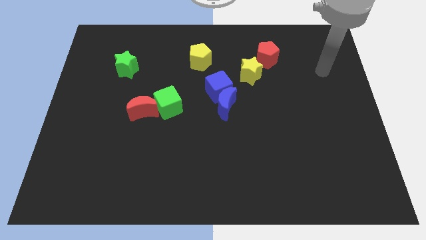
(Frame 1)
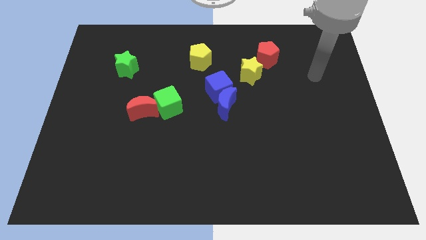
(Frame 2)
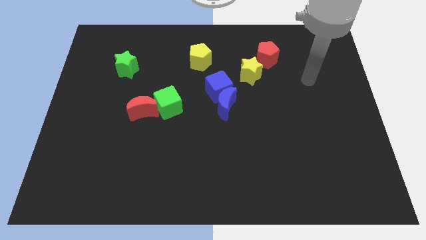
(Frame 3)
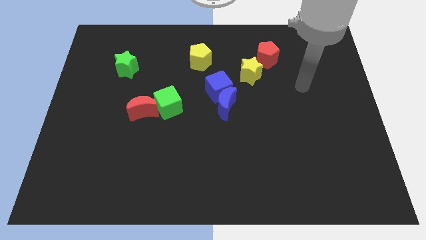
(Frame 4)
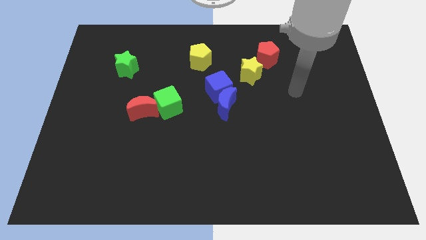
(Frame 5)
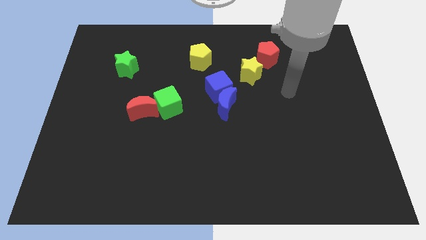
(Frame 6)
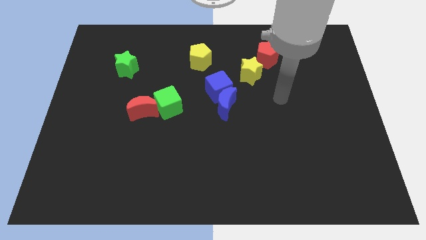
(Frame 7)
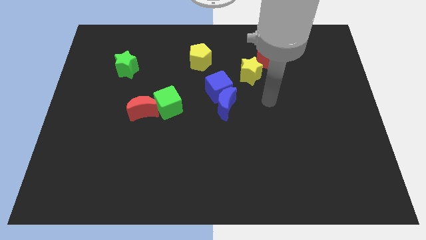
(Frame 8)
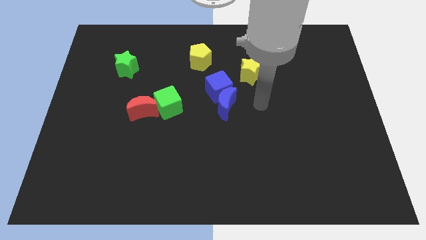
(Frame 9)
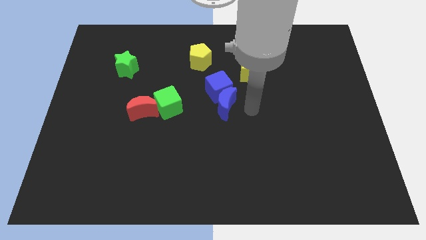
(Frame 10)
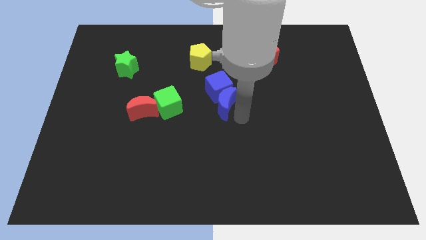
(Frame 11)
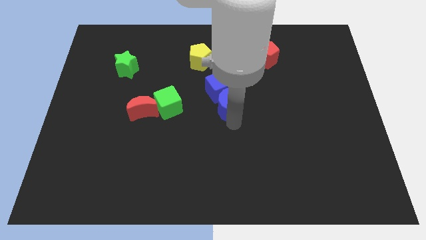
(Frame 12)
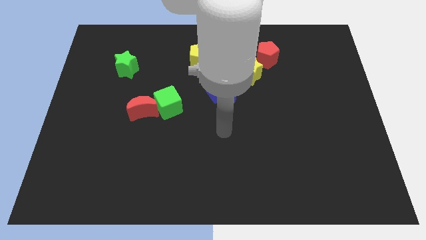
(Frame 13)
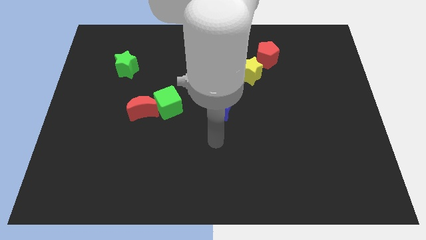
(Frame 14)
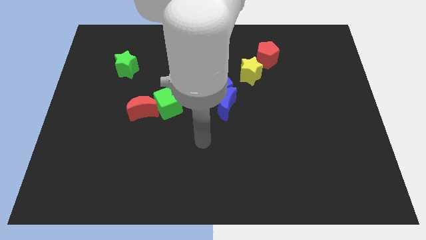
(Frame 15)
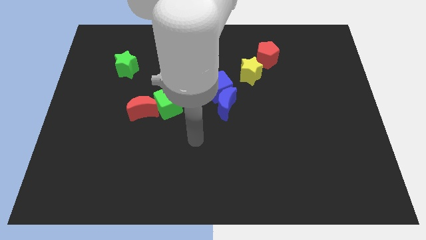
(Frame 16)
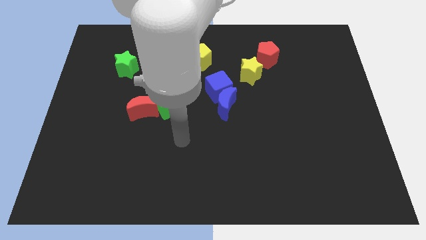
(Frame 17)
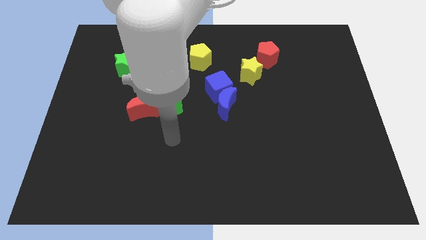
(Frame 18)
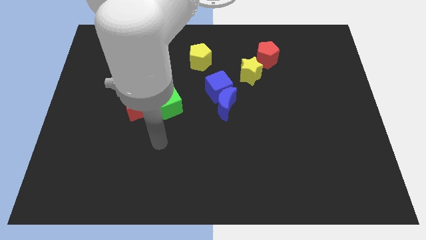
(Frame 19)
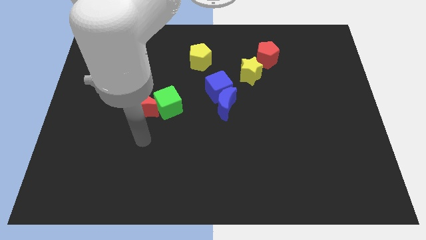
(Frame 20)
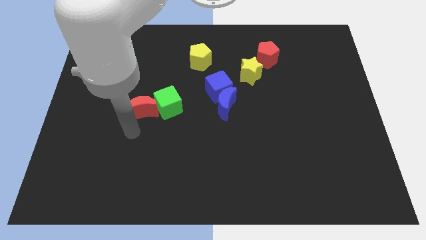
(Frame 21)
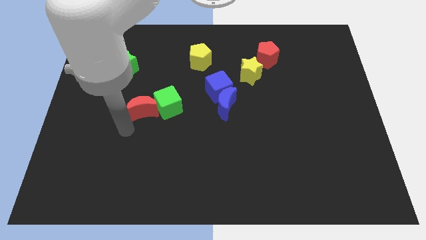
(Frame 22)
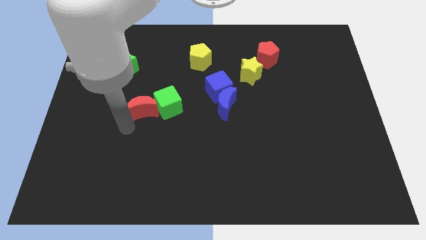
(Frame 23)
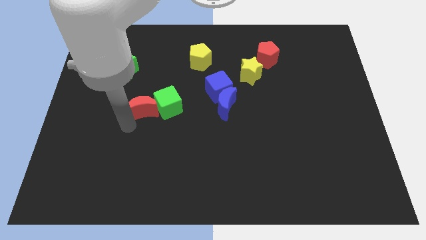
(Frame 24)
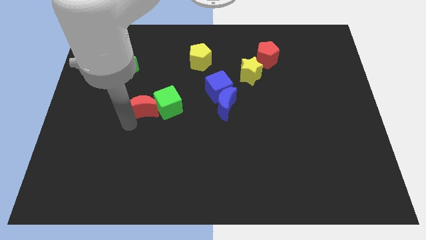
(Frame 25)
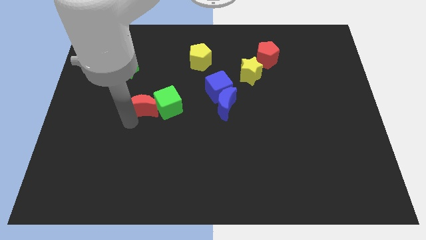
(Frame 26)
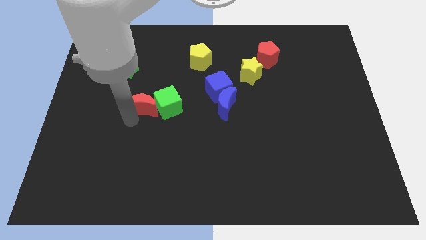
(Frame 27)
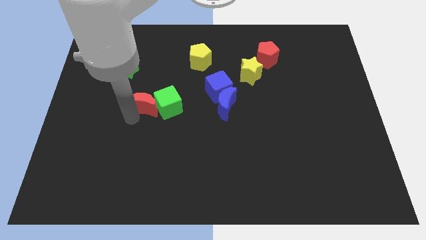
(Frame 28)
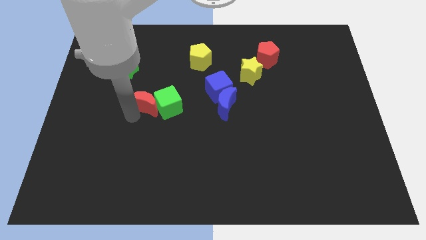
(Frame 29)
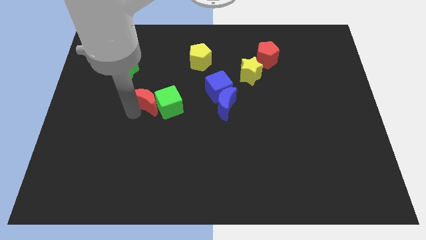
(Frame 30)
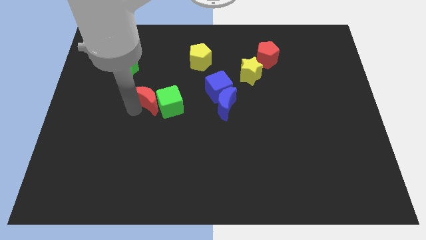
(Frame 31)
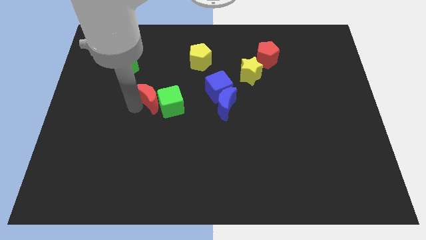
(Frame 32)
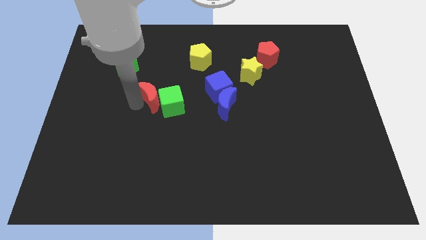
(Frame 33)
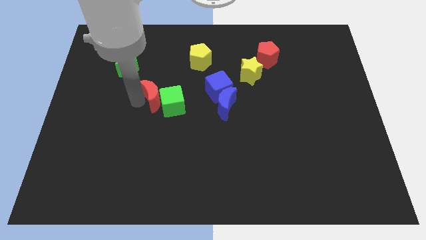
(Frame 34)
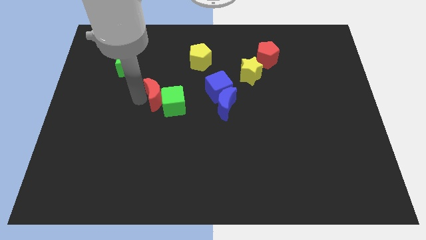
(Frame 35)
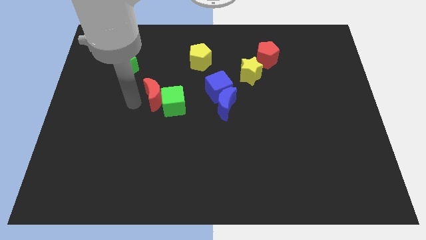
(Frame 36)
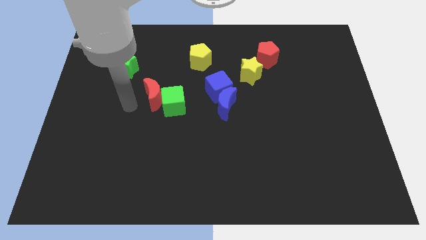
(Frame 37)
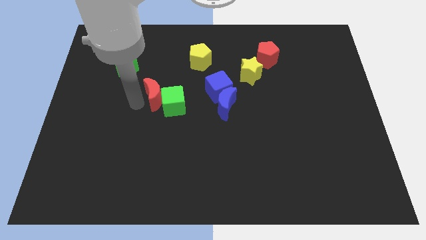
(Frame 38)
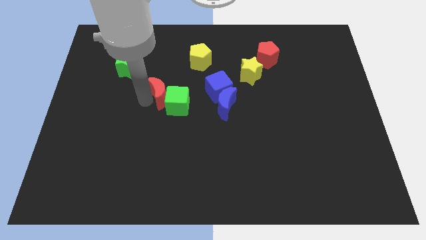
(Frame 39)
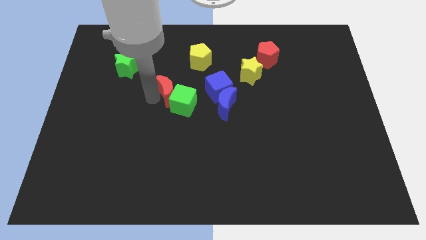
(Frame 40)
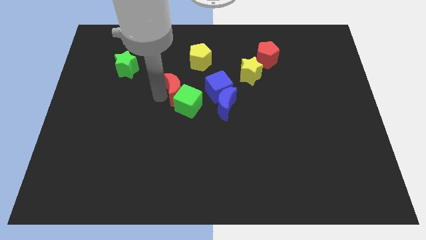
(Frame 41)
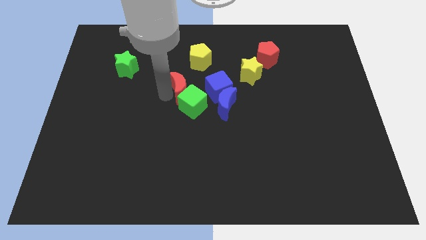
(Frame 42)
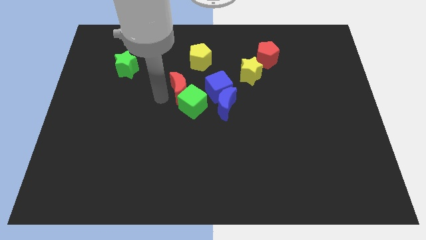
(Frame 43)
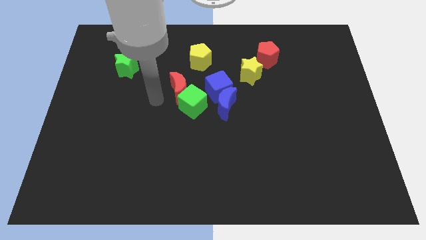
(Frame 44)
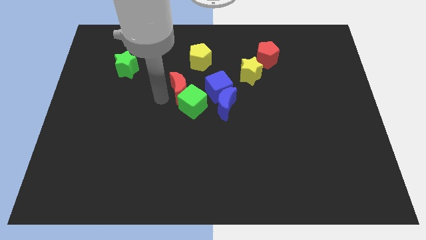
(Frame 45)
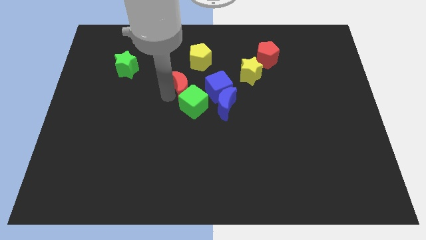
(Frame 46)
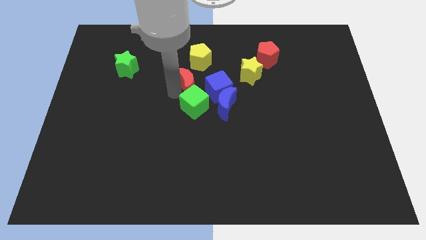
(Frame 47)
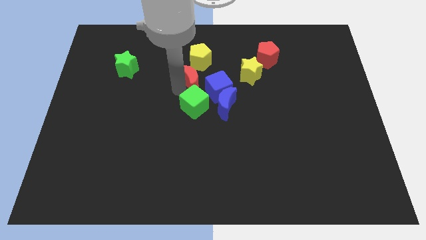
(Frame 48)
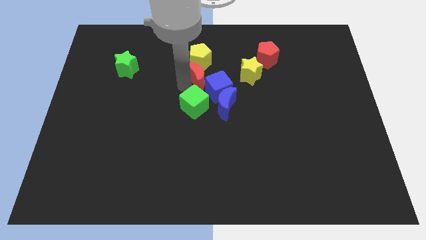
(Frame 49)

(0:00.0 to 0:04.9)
put the red moon to the bottom right of the yellow pentagon

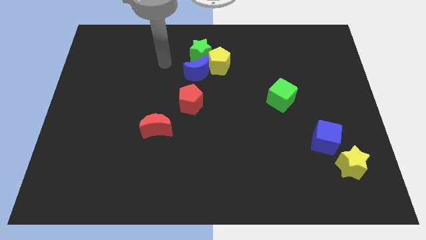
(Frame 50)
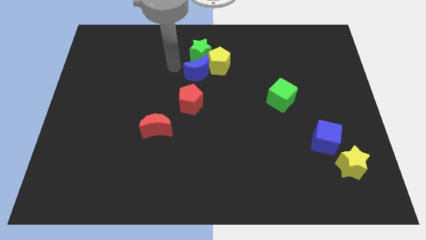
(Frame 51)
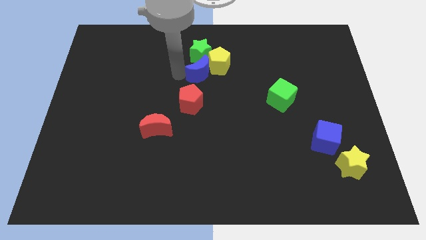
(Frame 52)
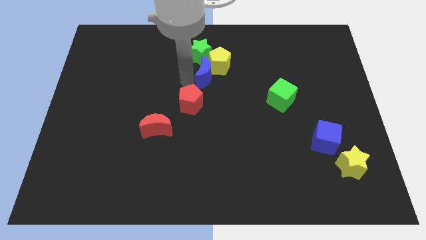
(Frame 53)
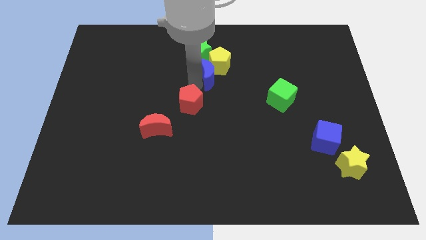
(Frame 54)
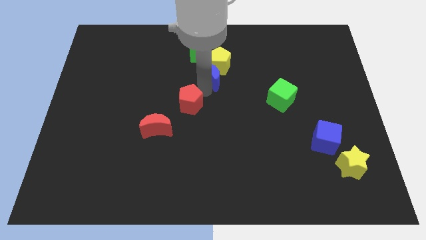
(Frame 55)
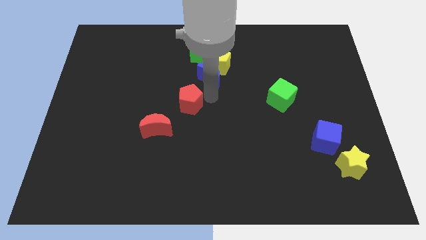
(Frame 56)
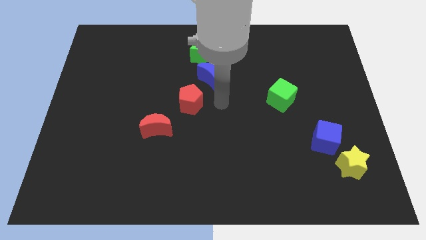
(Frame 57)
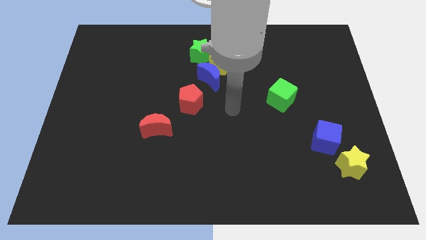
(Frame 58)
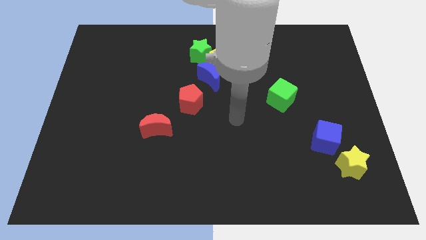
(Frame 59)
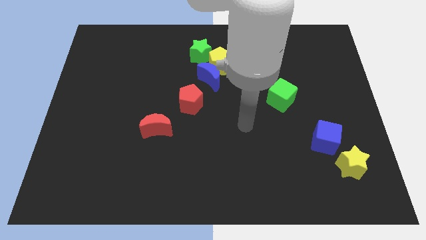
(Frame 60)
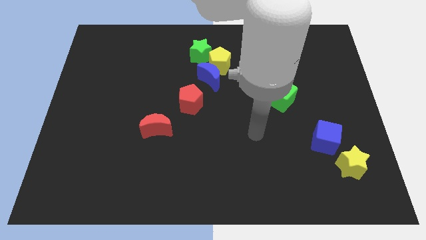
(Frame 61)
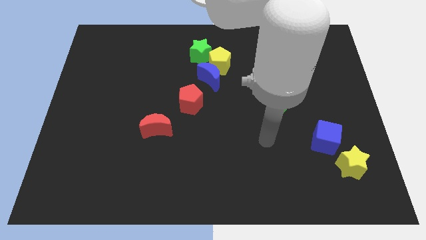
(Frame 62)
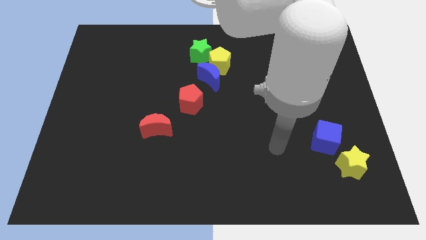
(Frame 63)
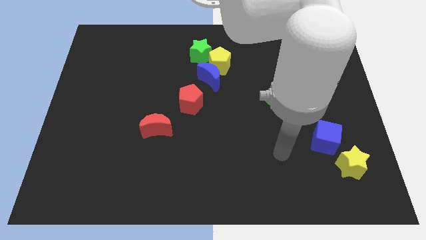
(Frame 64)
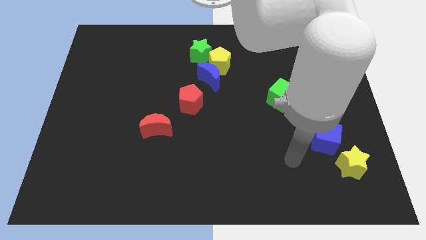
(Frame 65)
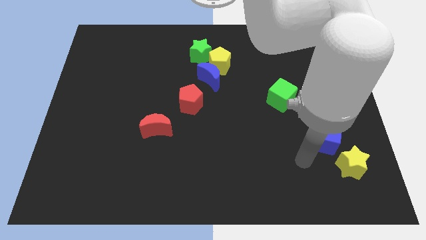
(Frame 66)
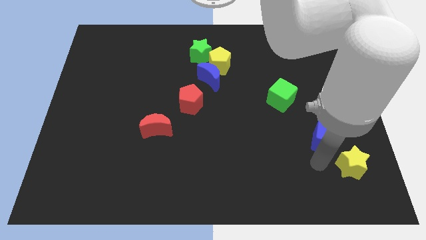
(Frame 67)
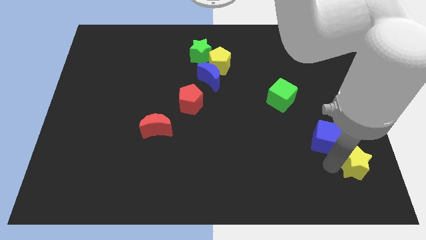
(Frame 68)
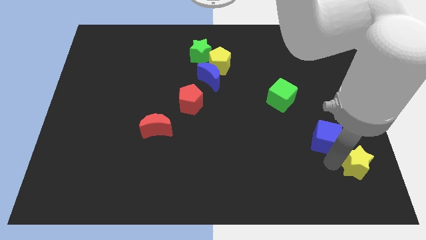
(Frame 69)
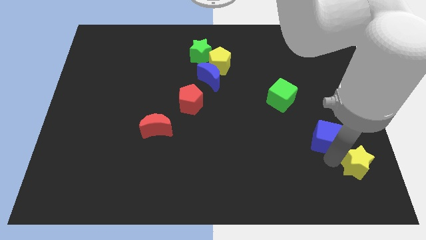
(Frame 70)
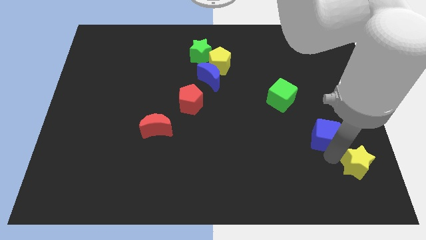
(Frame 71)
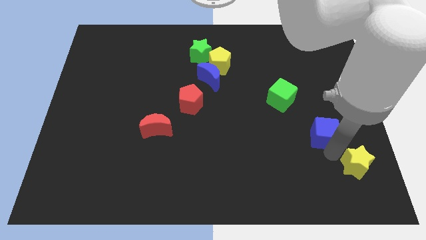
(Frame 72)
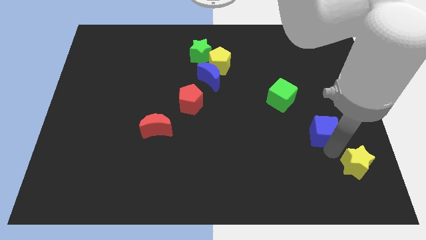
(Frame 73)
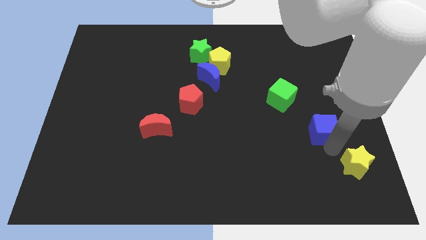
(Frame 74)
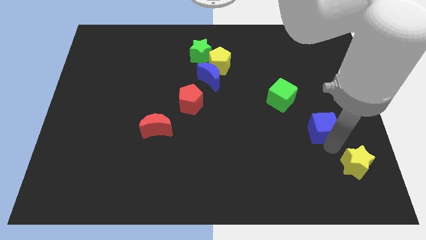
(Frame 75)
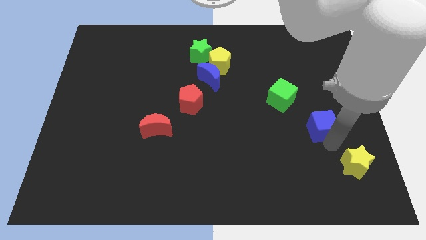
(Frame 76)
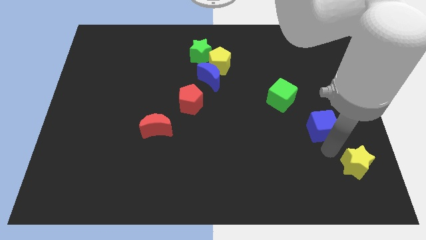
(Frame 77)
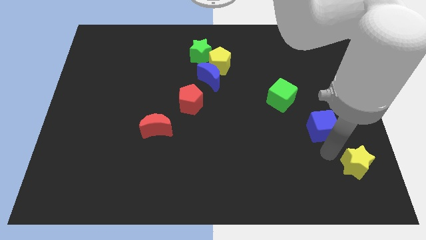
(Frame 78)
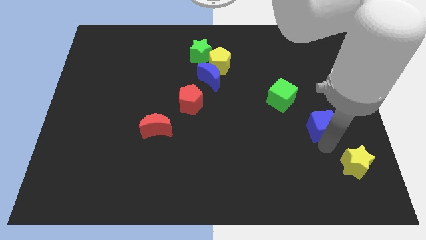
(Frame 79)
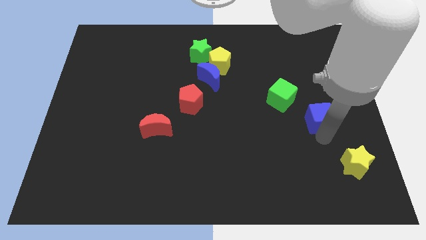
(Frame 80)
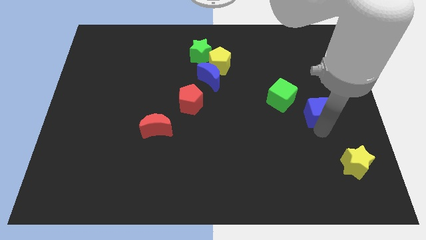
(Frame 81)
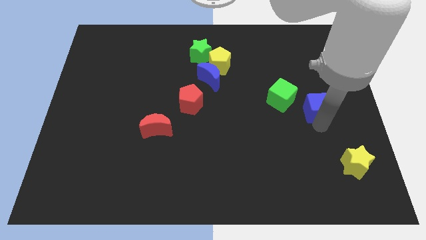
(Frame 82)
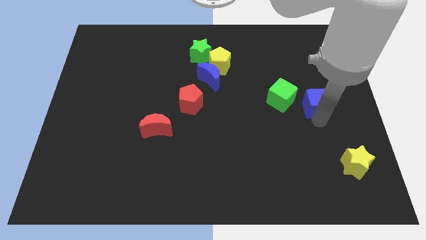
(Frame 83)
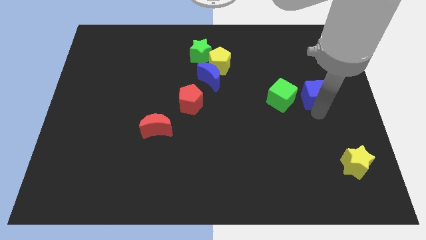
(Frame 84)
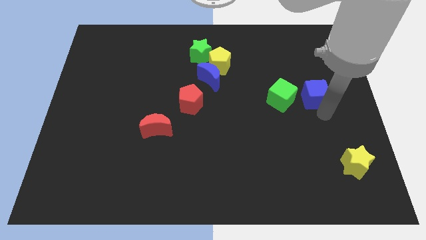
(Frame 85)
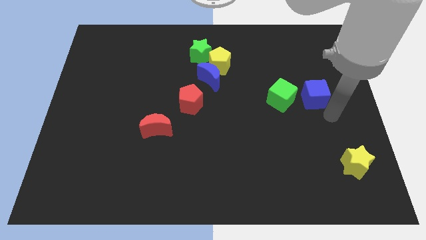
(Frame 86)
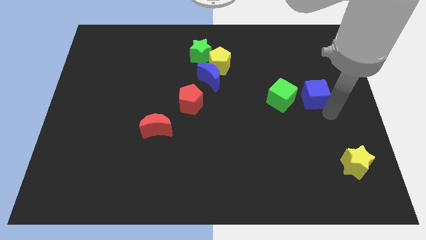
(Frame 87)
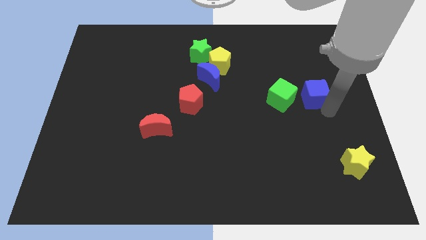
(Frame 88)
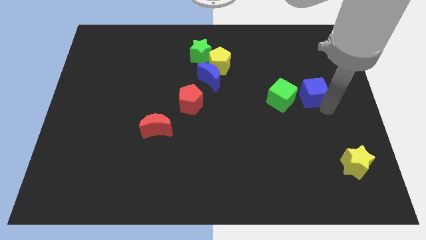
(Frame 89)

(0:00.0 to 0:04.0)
move the blue cube diagonally up and to the right of the green cube
